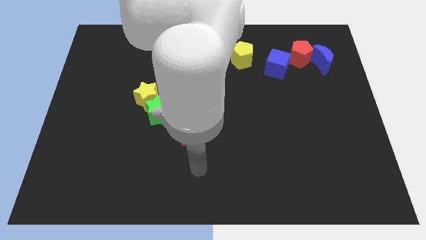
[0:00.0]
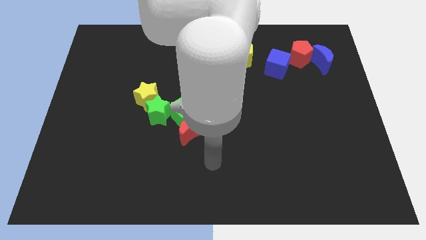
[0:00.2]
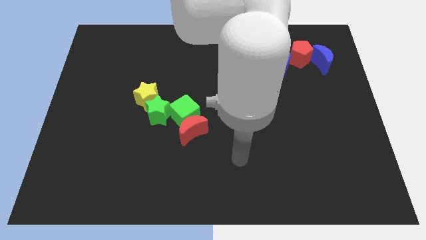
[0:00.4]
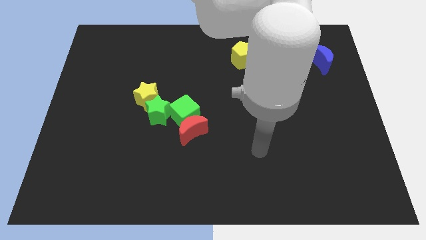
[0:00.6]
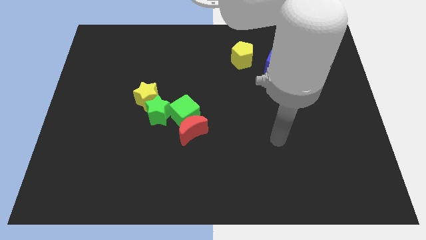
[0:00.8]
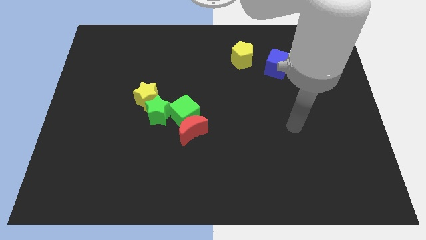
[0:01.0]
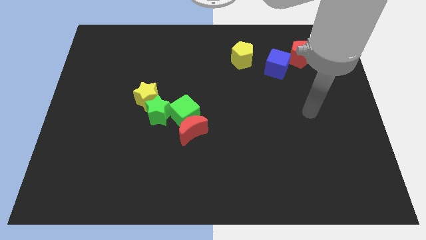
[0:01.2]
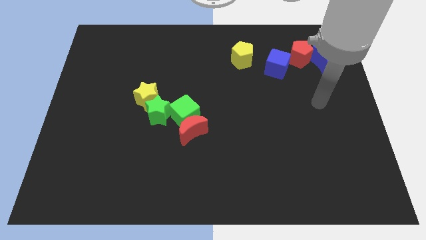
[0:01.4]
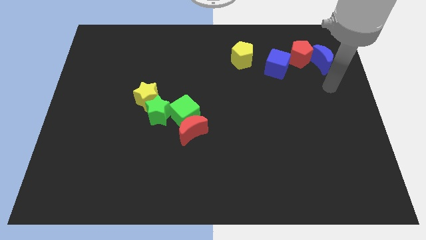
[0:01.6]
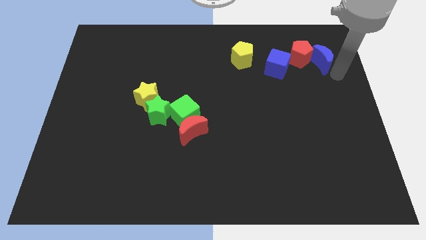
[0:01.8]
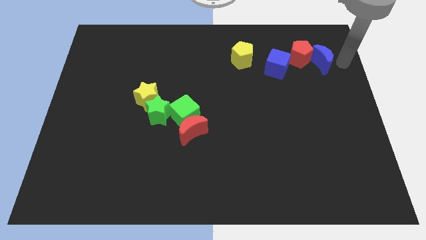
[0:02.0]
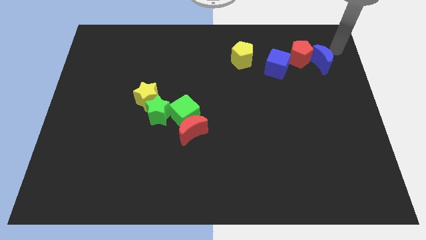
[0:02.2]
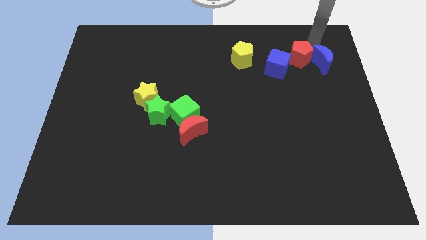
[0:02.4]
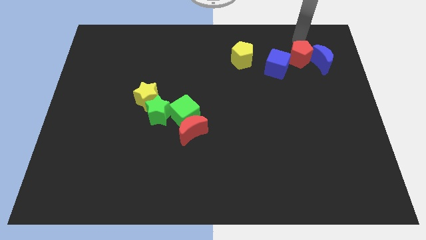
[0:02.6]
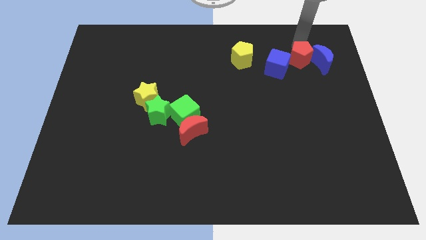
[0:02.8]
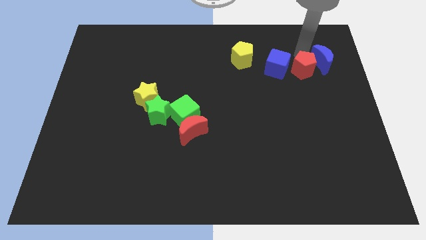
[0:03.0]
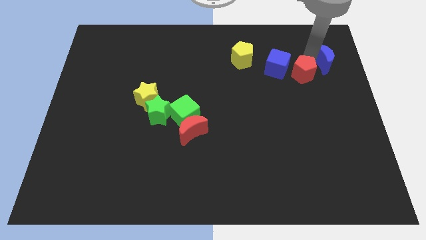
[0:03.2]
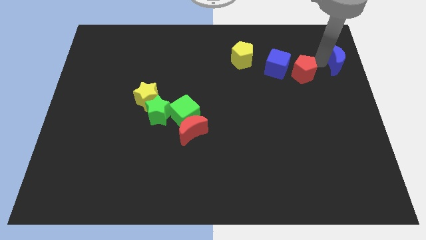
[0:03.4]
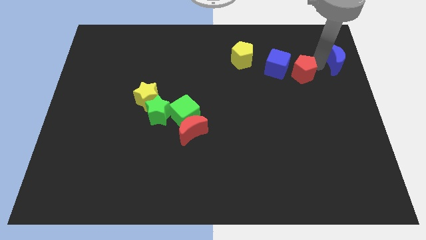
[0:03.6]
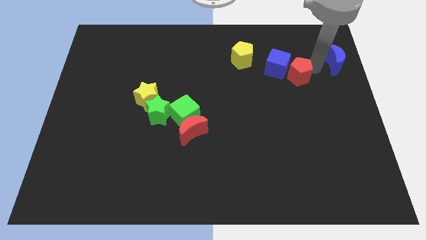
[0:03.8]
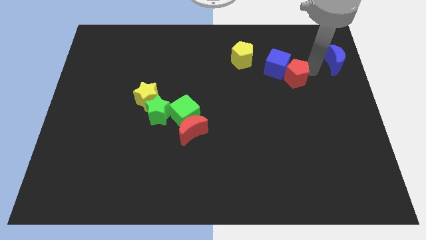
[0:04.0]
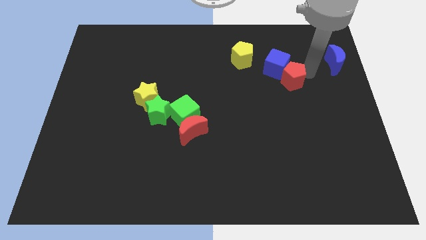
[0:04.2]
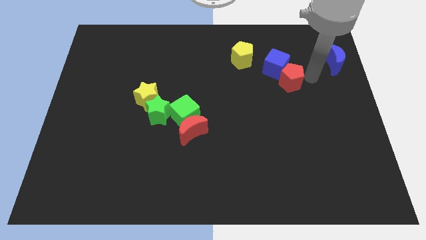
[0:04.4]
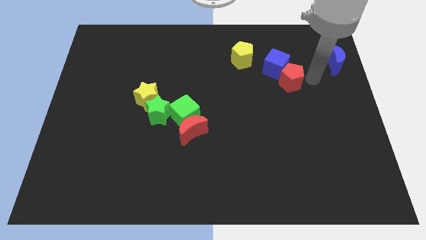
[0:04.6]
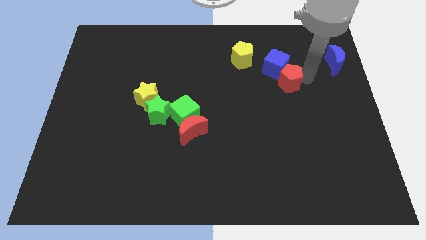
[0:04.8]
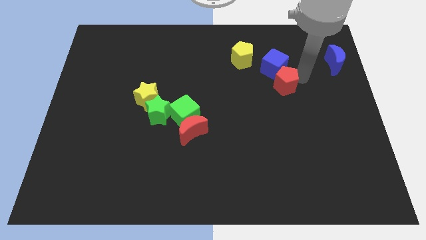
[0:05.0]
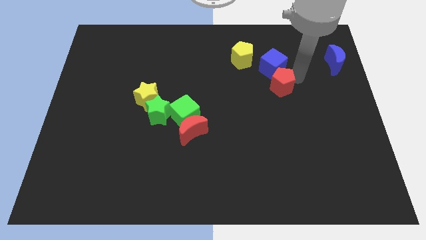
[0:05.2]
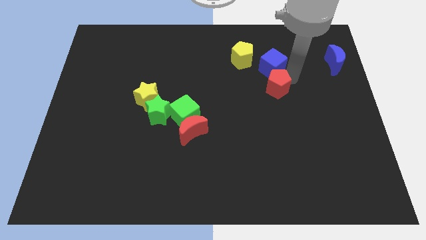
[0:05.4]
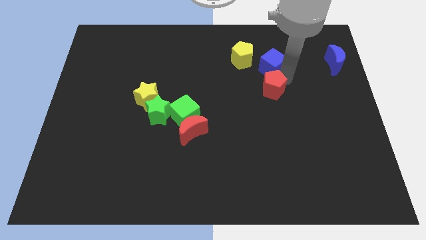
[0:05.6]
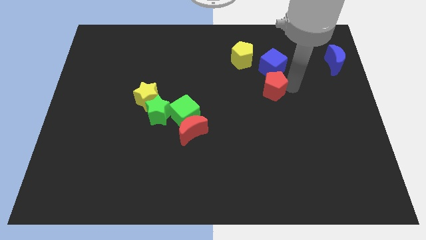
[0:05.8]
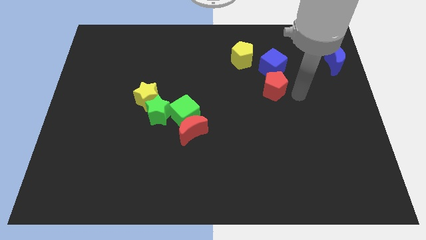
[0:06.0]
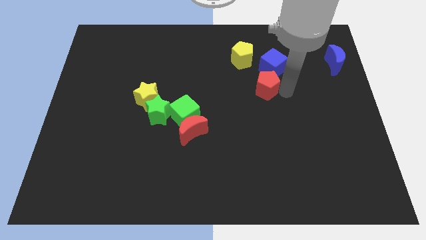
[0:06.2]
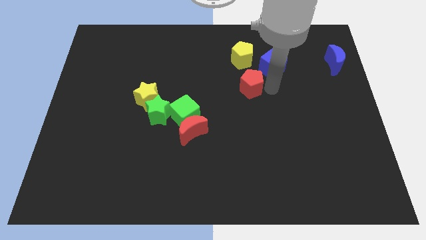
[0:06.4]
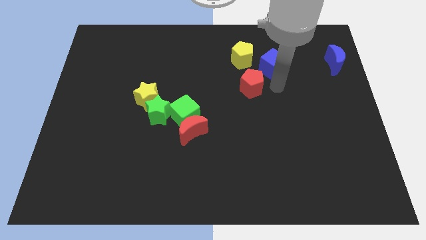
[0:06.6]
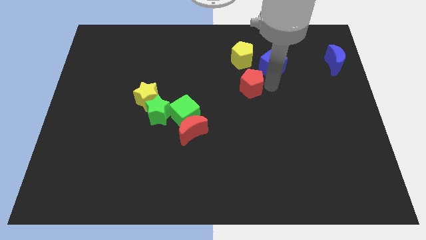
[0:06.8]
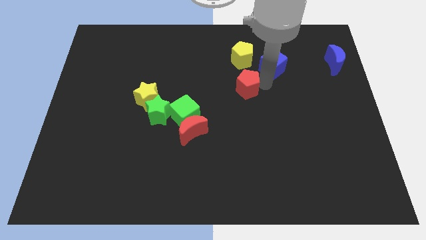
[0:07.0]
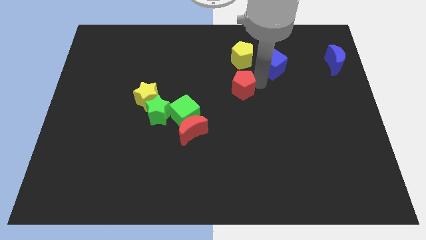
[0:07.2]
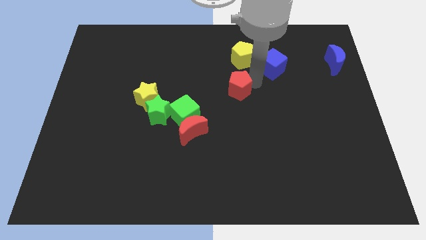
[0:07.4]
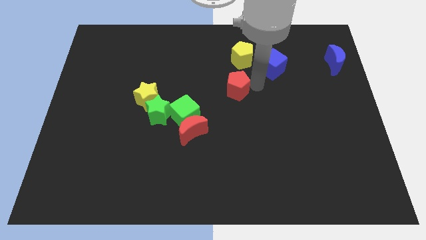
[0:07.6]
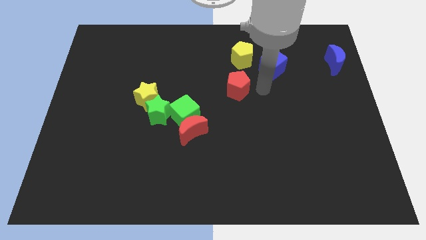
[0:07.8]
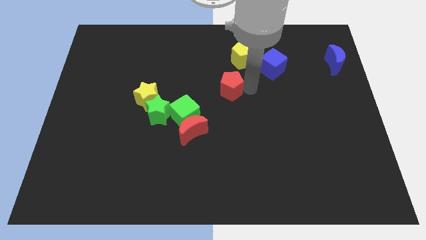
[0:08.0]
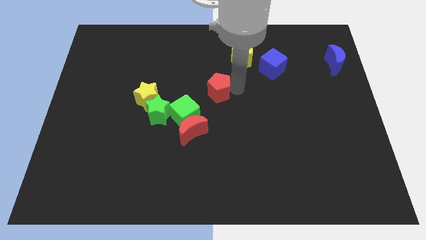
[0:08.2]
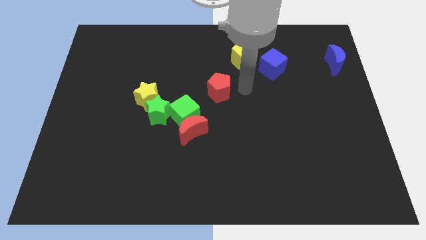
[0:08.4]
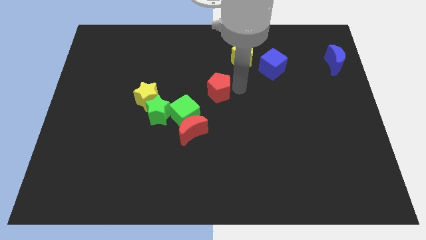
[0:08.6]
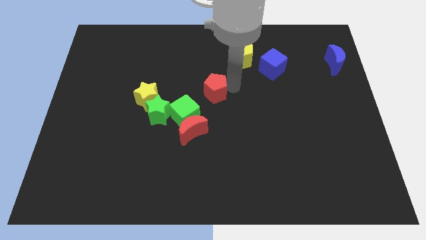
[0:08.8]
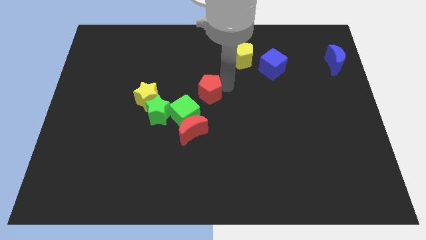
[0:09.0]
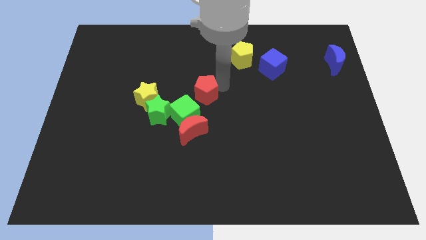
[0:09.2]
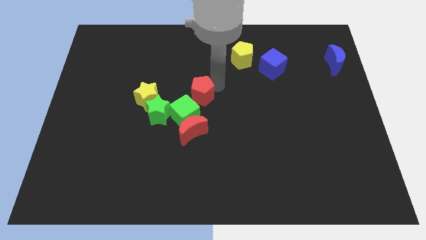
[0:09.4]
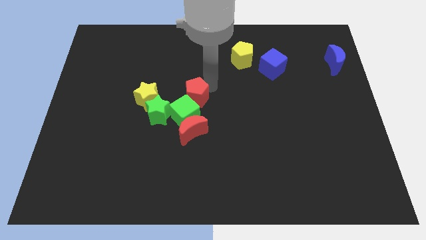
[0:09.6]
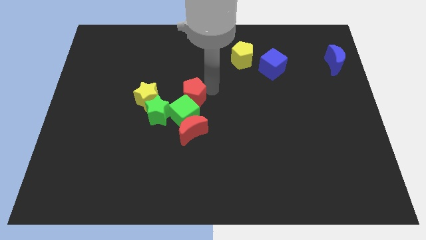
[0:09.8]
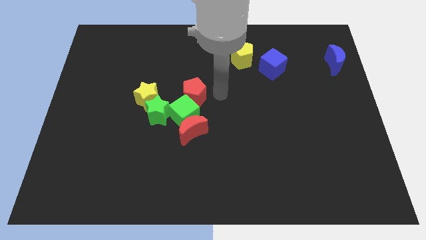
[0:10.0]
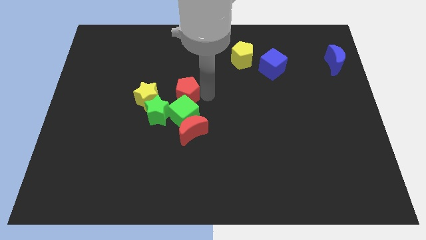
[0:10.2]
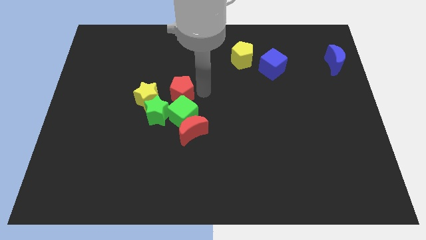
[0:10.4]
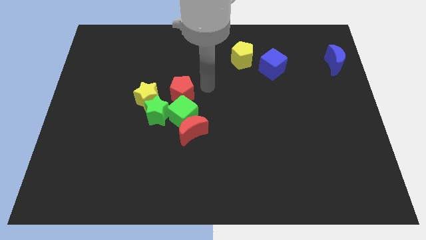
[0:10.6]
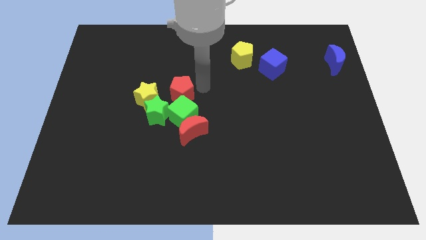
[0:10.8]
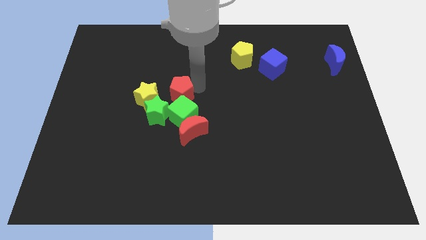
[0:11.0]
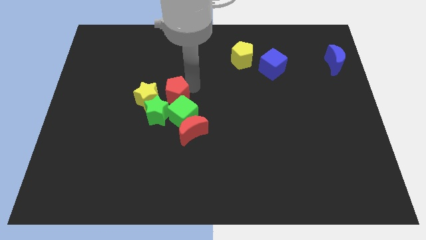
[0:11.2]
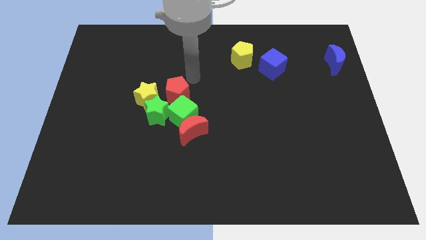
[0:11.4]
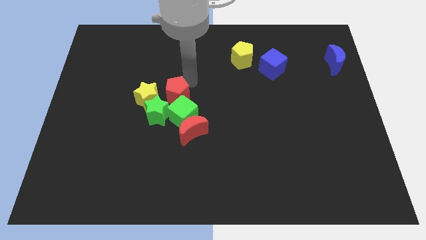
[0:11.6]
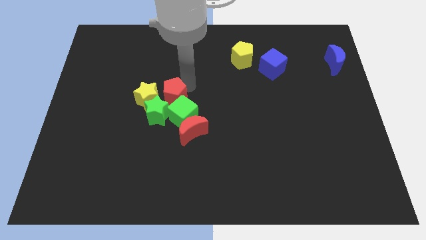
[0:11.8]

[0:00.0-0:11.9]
put the red pentagon to the green star

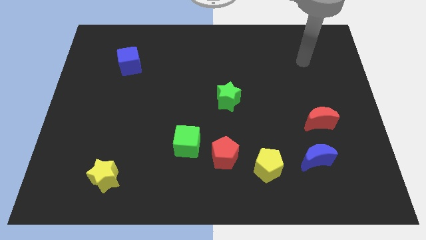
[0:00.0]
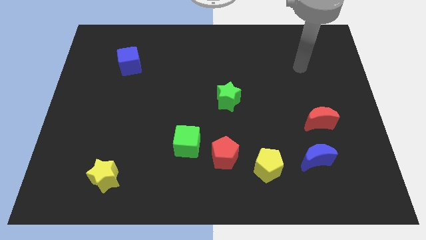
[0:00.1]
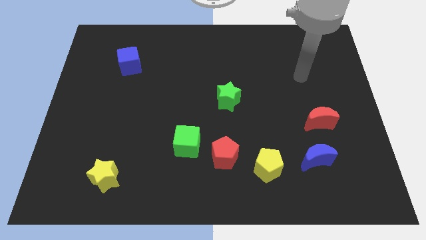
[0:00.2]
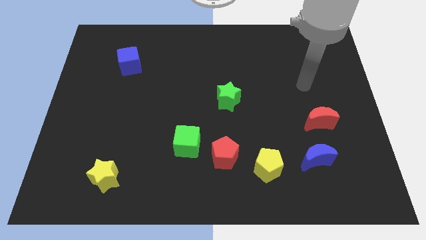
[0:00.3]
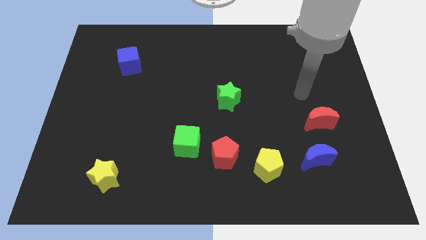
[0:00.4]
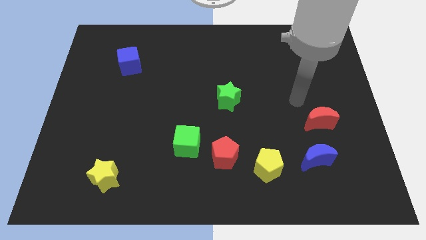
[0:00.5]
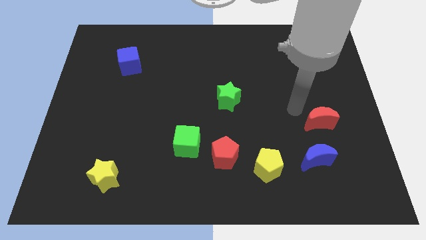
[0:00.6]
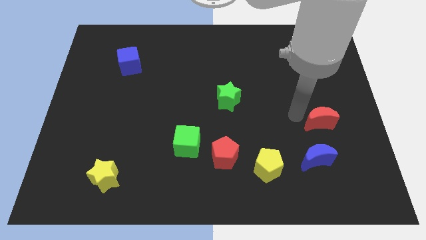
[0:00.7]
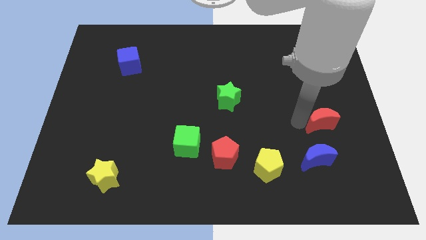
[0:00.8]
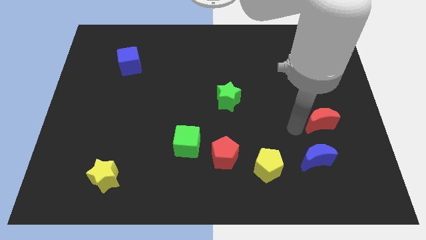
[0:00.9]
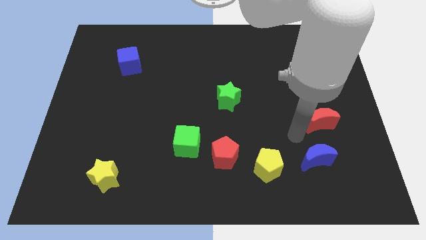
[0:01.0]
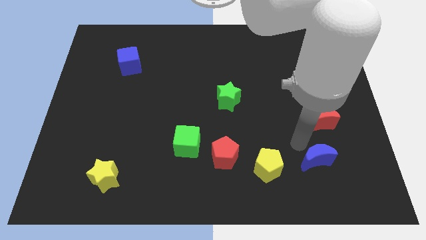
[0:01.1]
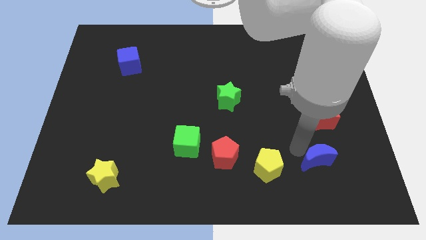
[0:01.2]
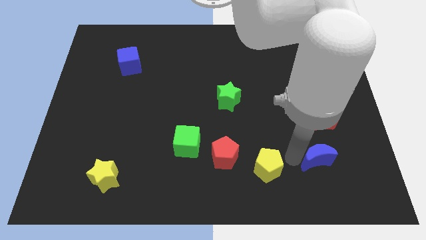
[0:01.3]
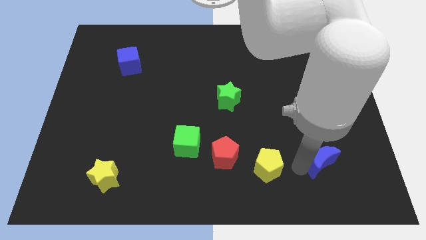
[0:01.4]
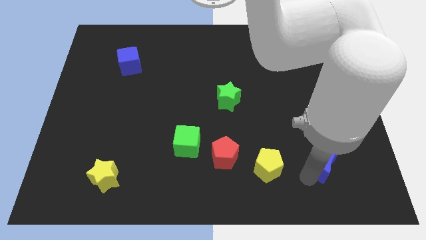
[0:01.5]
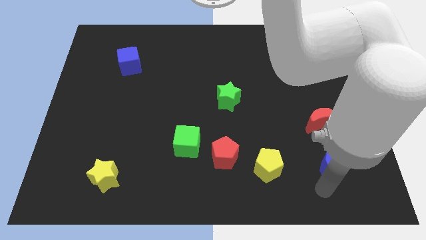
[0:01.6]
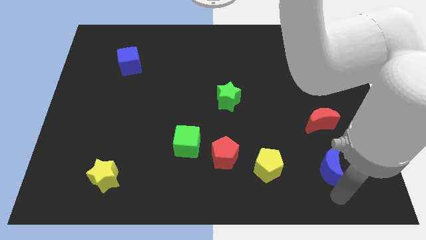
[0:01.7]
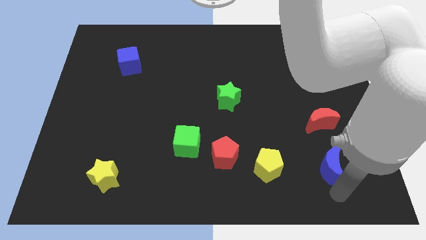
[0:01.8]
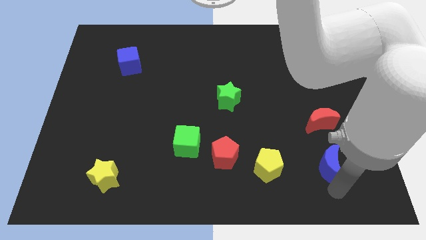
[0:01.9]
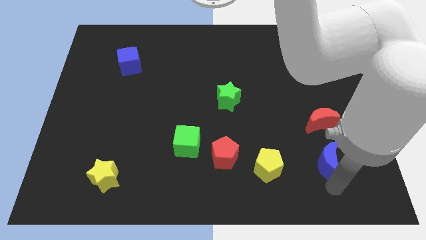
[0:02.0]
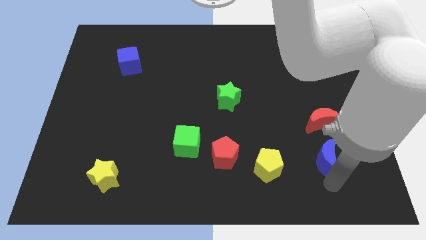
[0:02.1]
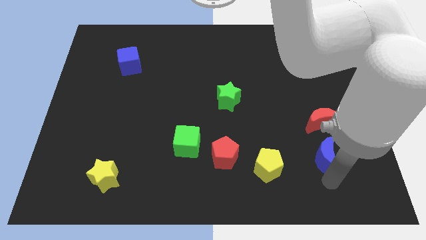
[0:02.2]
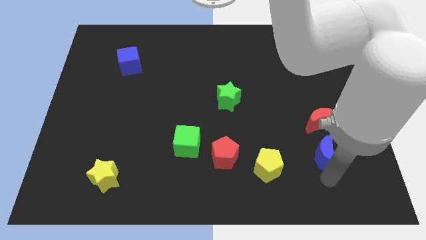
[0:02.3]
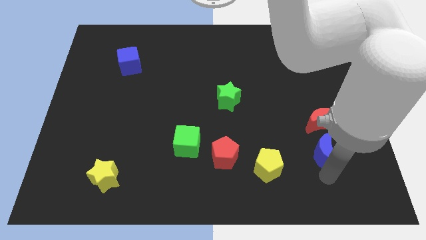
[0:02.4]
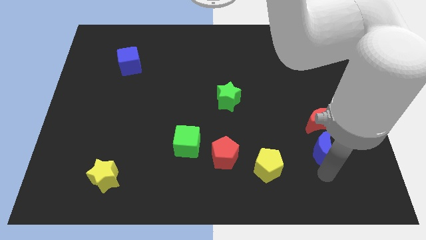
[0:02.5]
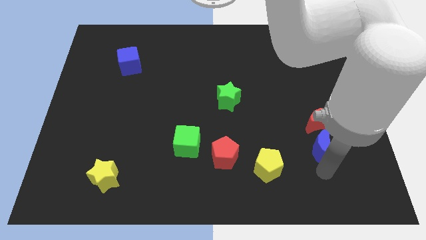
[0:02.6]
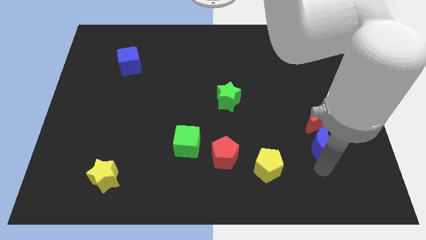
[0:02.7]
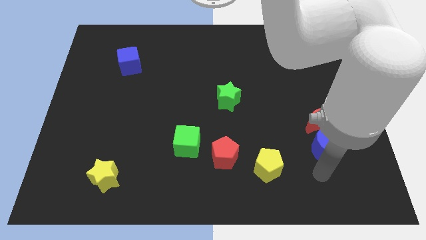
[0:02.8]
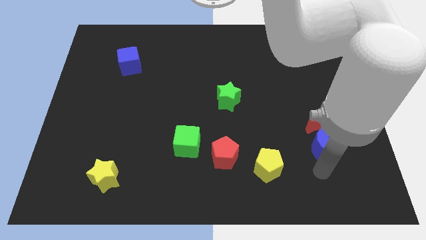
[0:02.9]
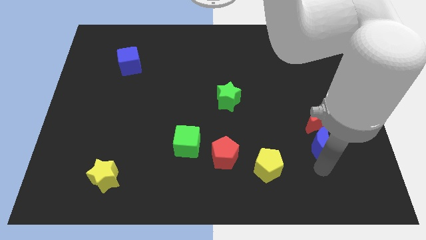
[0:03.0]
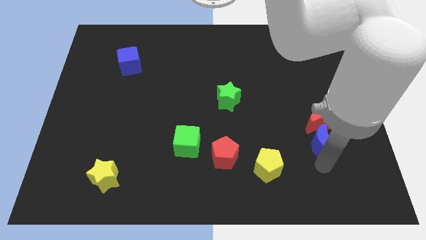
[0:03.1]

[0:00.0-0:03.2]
put the blue moon to the red moon
